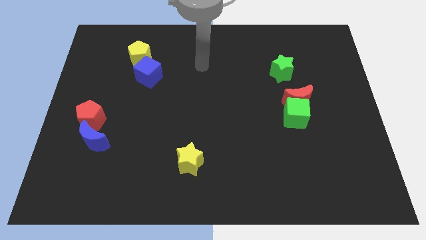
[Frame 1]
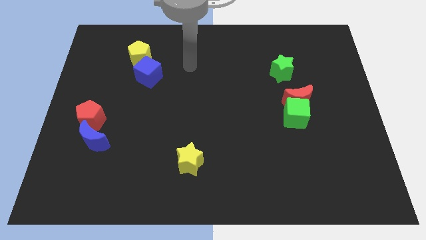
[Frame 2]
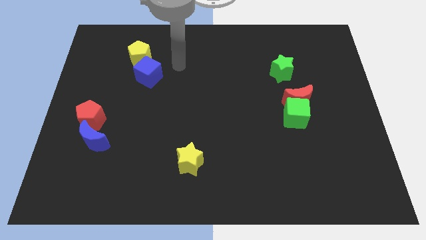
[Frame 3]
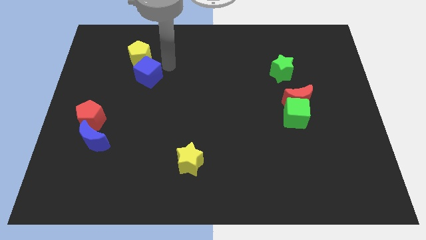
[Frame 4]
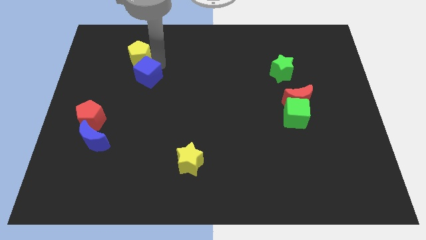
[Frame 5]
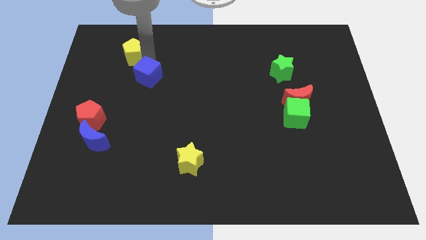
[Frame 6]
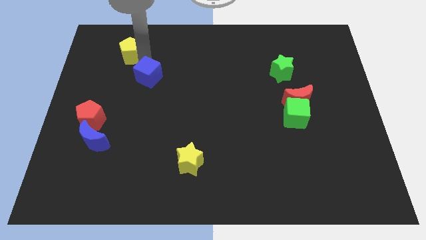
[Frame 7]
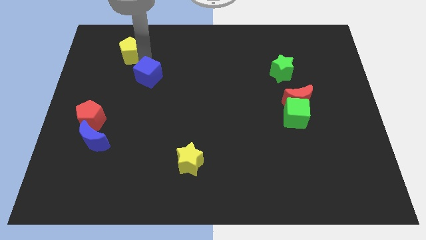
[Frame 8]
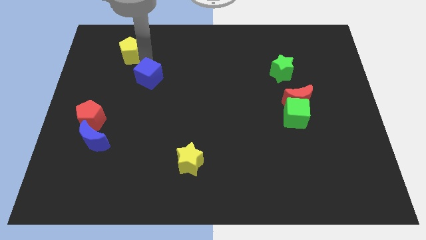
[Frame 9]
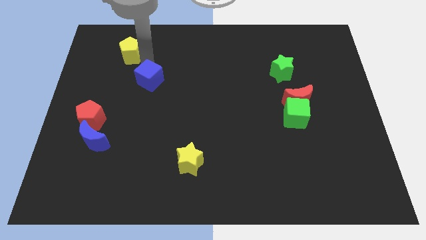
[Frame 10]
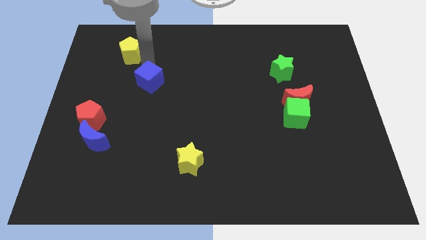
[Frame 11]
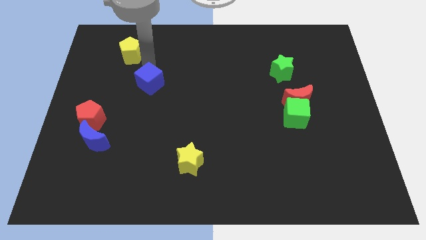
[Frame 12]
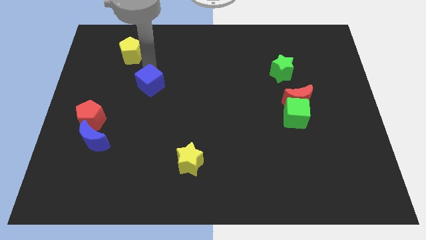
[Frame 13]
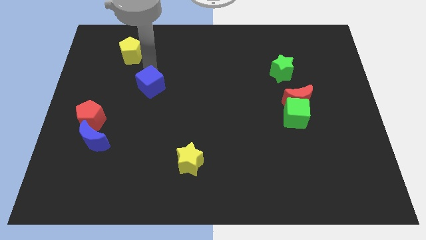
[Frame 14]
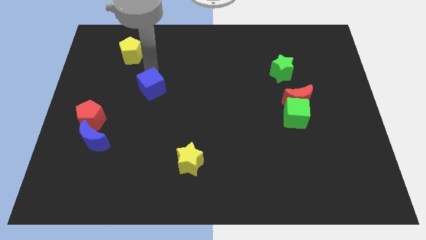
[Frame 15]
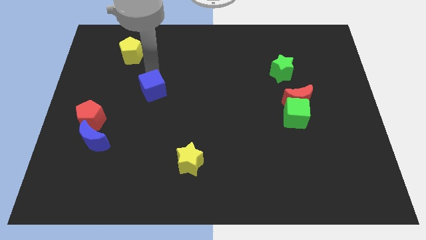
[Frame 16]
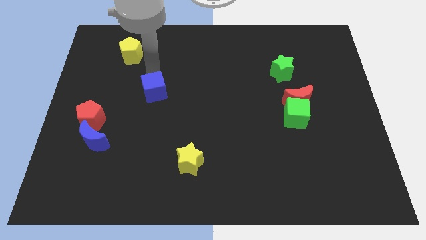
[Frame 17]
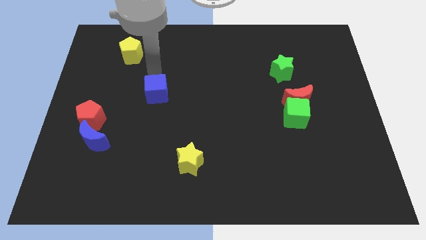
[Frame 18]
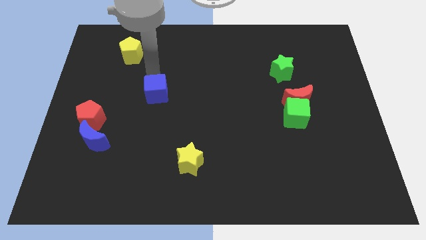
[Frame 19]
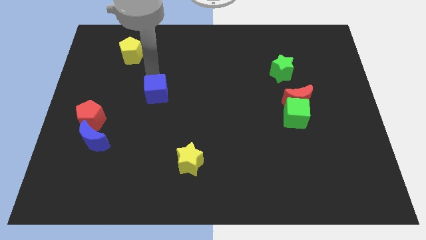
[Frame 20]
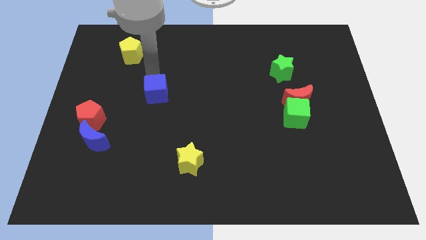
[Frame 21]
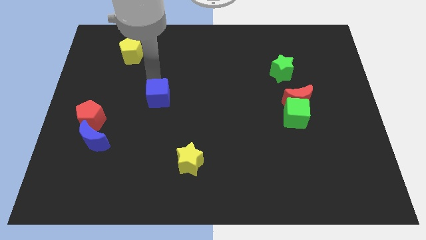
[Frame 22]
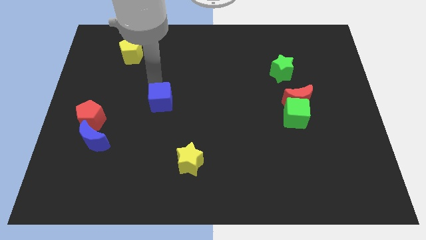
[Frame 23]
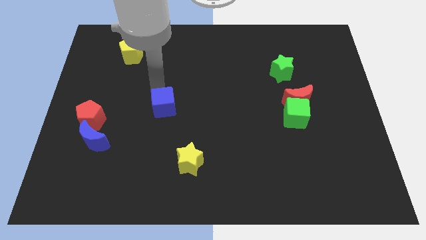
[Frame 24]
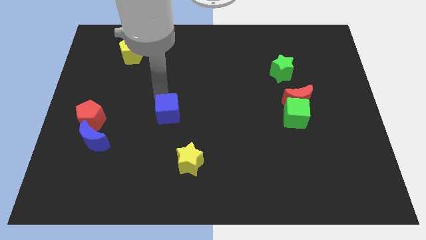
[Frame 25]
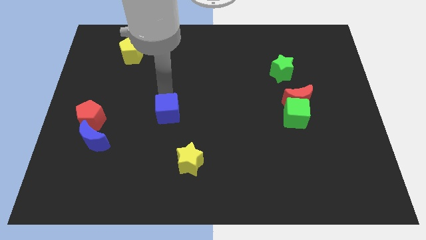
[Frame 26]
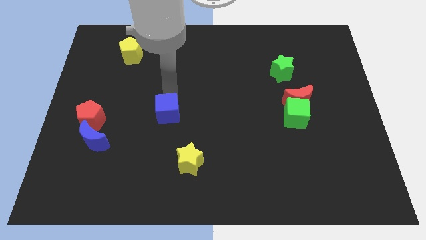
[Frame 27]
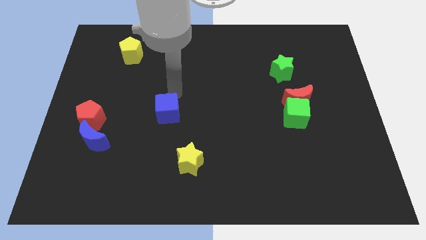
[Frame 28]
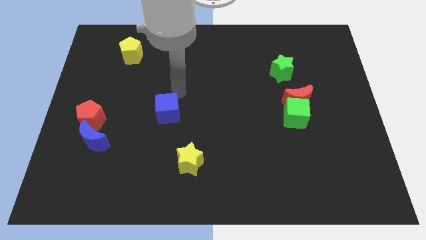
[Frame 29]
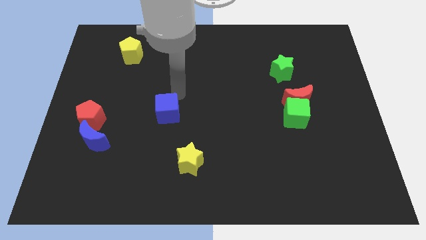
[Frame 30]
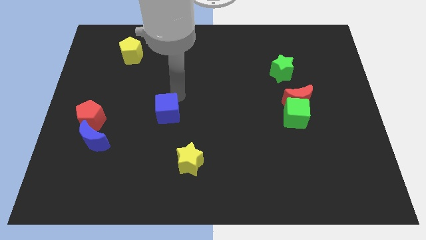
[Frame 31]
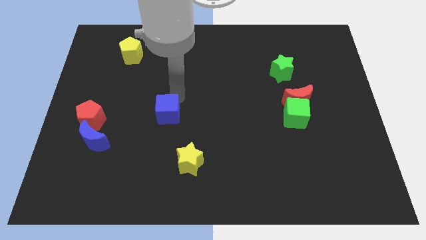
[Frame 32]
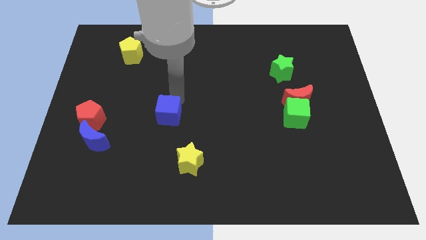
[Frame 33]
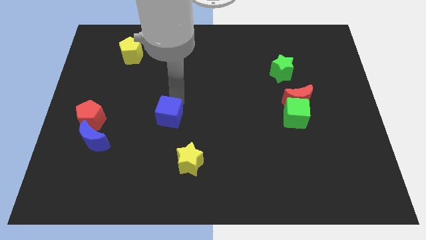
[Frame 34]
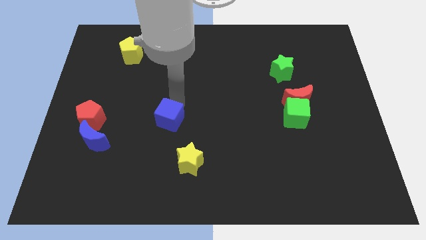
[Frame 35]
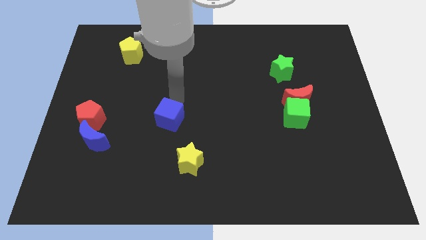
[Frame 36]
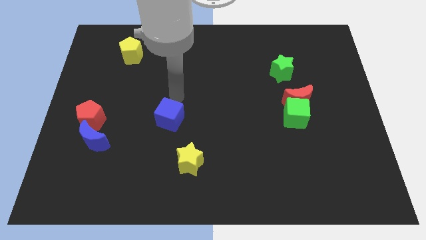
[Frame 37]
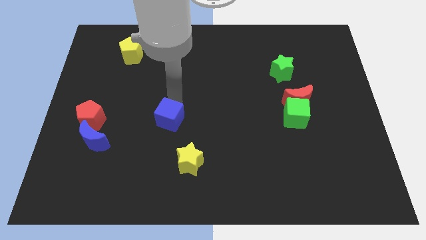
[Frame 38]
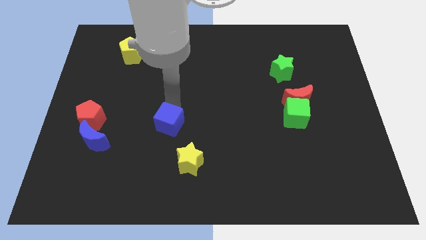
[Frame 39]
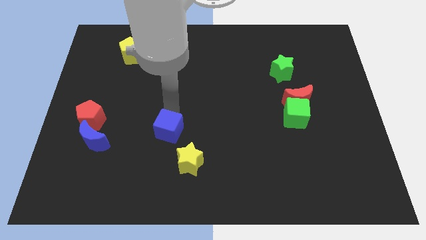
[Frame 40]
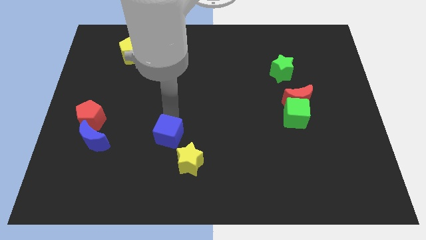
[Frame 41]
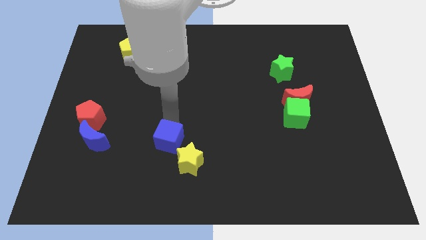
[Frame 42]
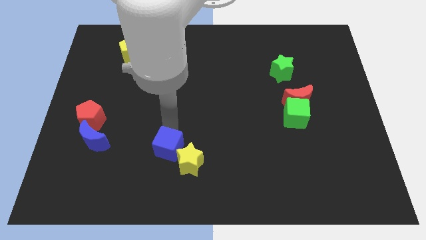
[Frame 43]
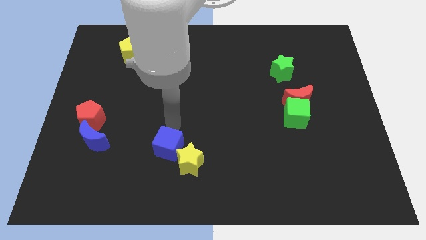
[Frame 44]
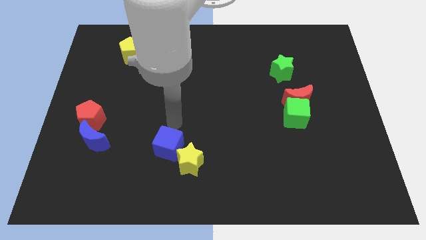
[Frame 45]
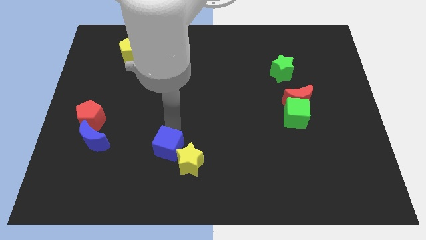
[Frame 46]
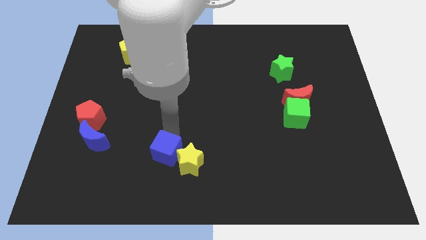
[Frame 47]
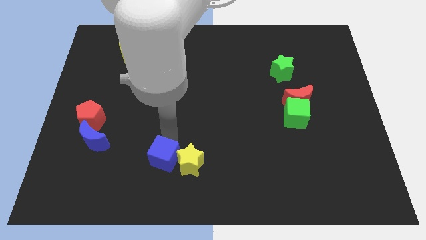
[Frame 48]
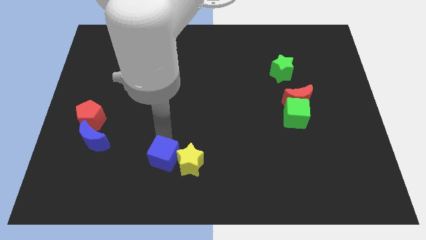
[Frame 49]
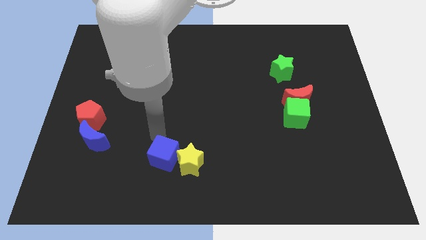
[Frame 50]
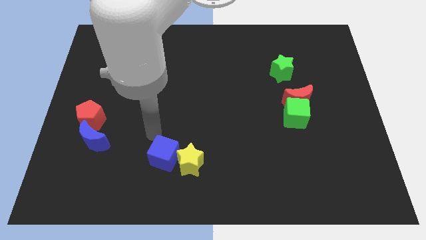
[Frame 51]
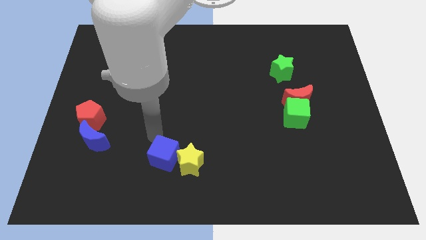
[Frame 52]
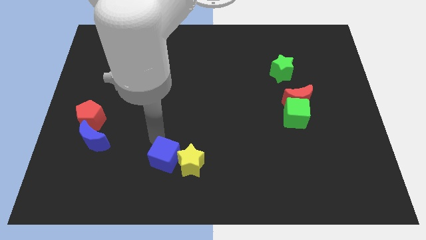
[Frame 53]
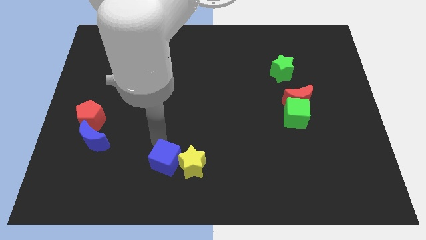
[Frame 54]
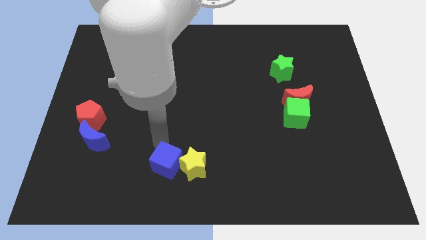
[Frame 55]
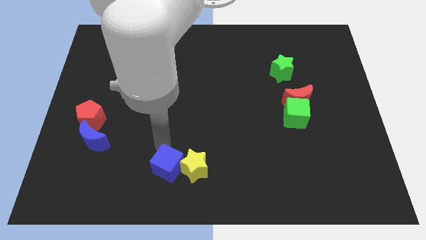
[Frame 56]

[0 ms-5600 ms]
move the blue cube to the bottom side
